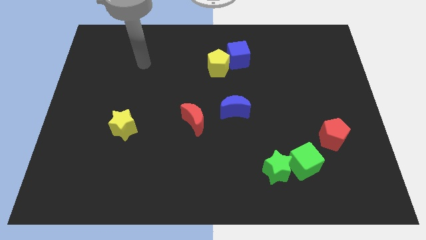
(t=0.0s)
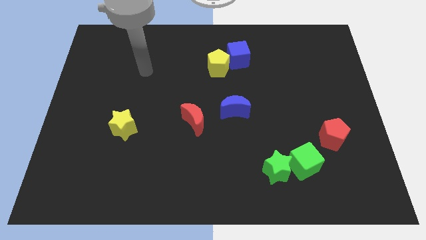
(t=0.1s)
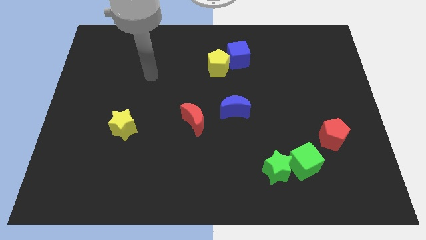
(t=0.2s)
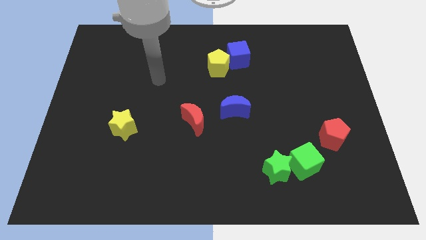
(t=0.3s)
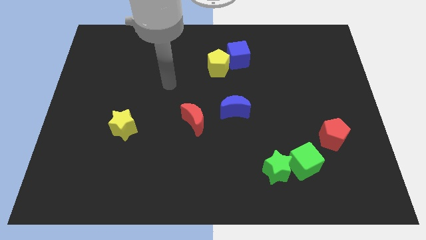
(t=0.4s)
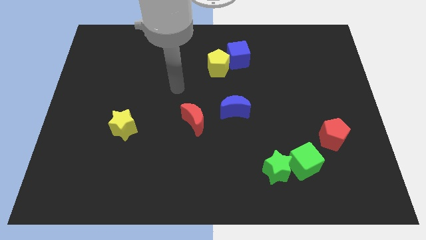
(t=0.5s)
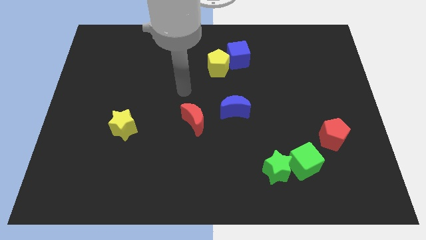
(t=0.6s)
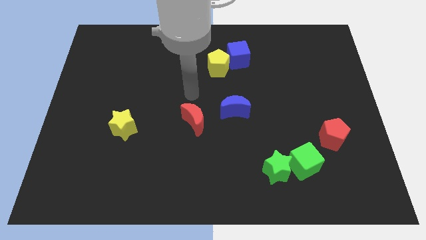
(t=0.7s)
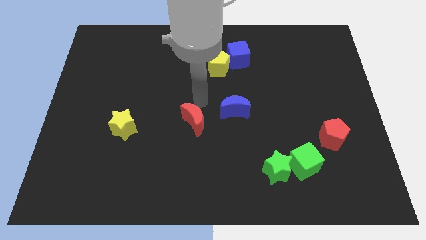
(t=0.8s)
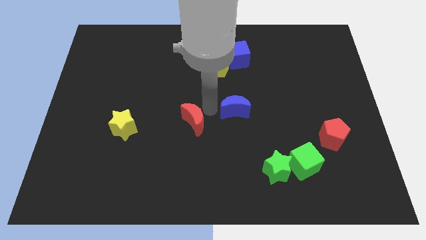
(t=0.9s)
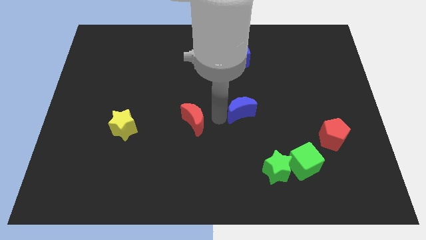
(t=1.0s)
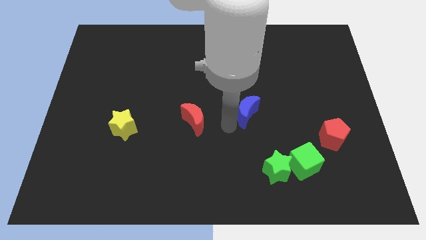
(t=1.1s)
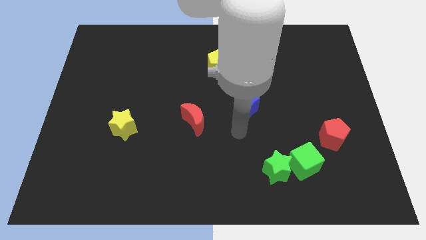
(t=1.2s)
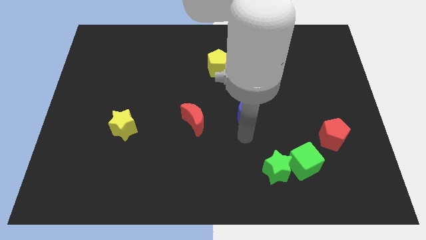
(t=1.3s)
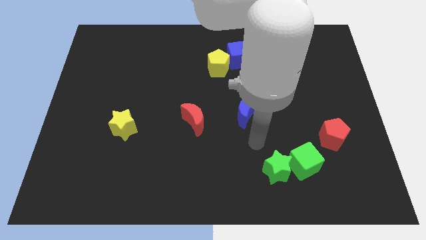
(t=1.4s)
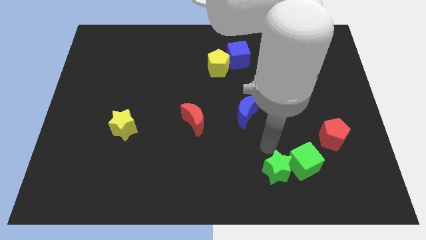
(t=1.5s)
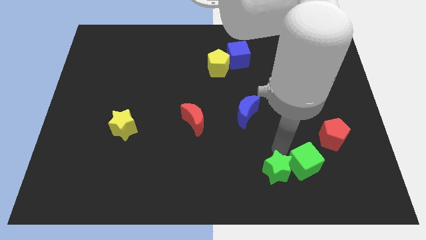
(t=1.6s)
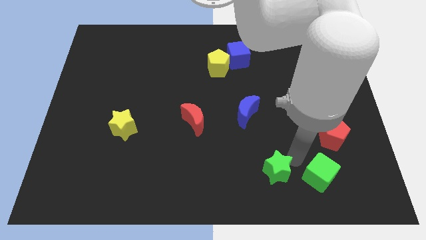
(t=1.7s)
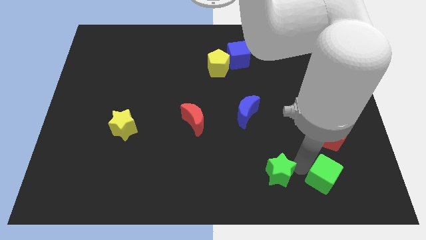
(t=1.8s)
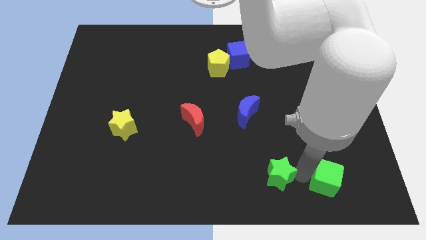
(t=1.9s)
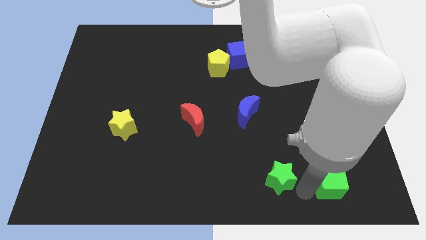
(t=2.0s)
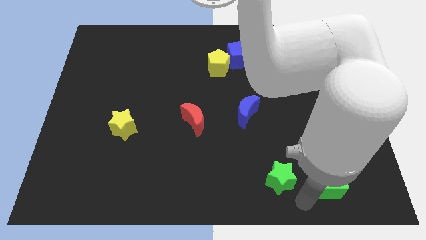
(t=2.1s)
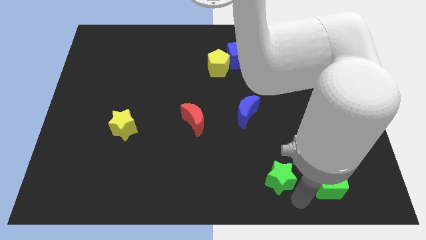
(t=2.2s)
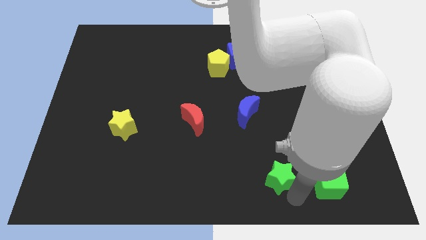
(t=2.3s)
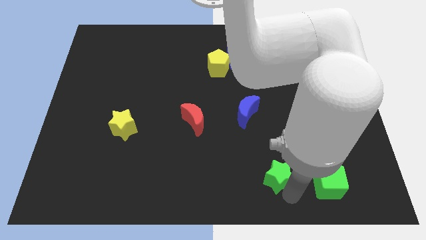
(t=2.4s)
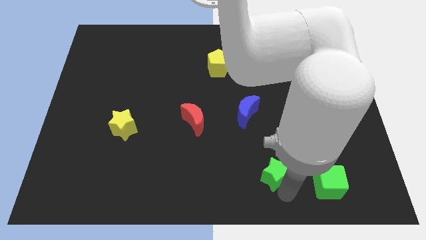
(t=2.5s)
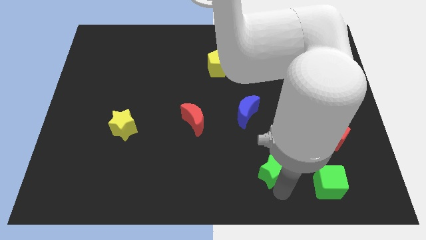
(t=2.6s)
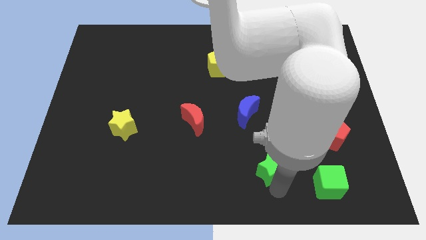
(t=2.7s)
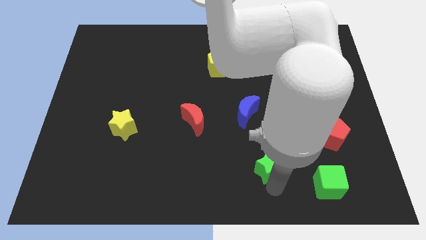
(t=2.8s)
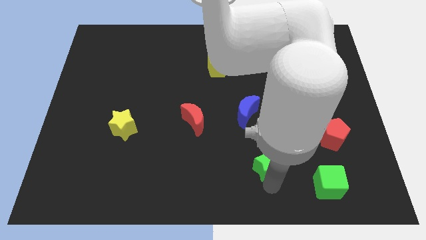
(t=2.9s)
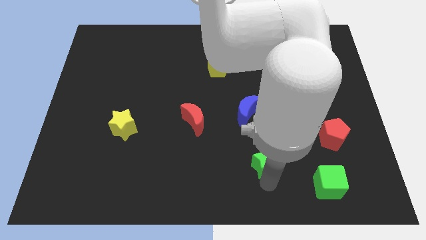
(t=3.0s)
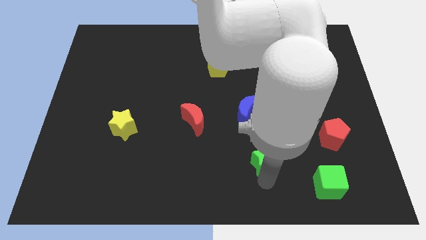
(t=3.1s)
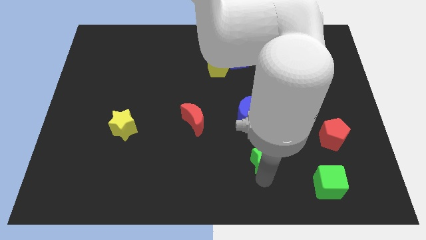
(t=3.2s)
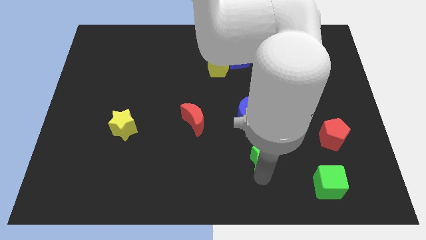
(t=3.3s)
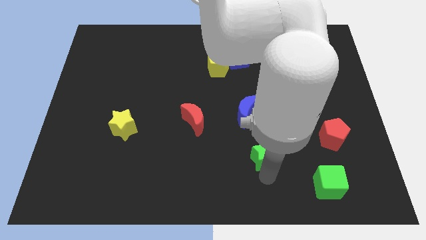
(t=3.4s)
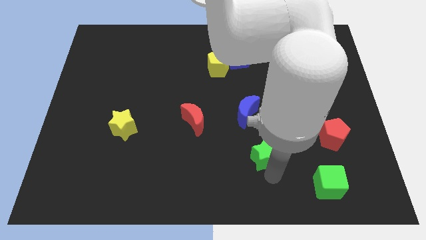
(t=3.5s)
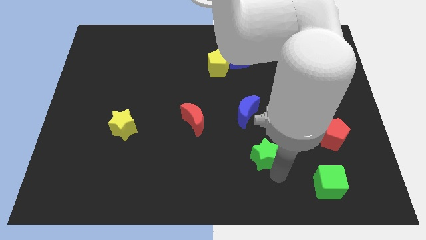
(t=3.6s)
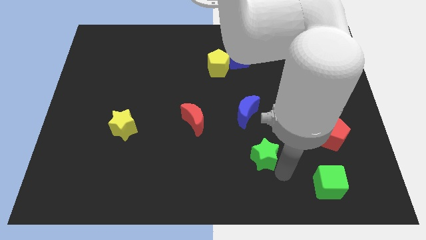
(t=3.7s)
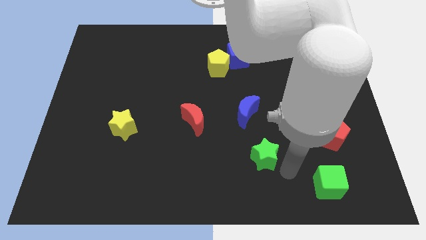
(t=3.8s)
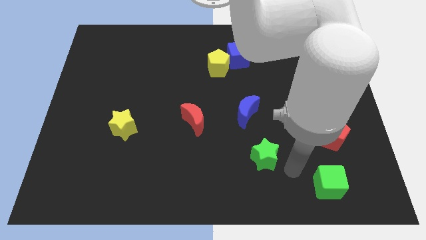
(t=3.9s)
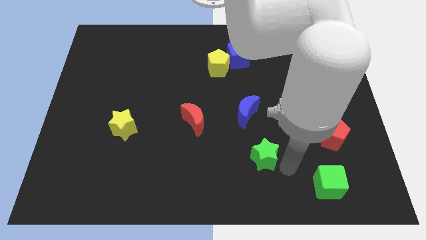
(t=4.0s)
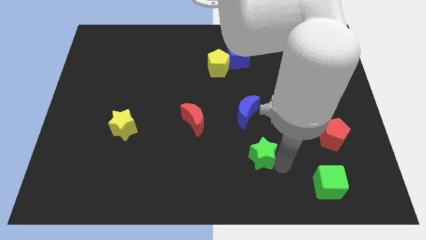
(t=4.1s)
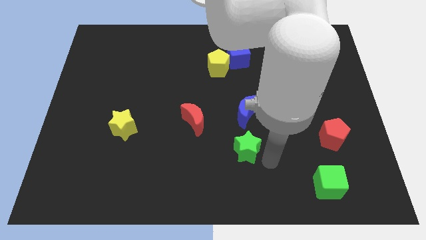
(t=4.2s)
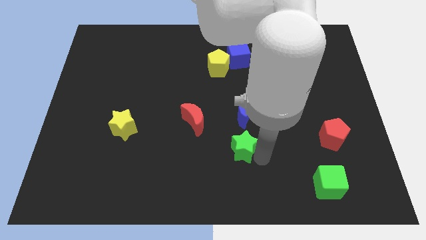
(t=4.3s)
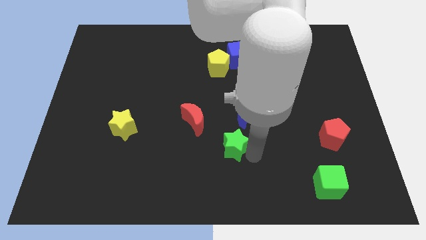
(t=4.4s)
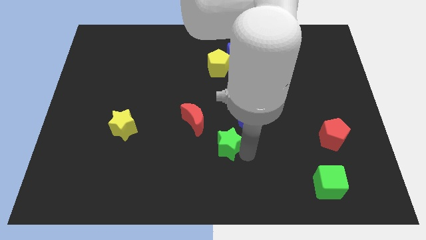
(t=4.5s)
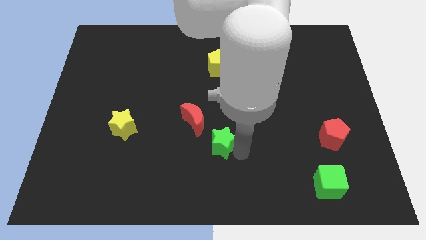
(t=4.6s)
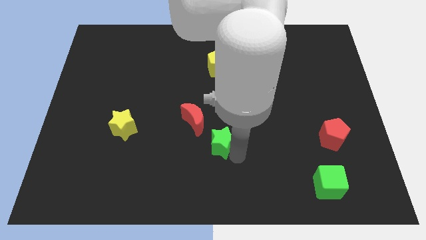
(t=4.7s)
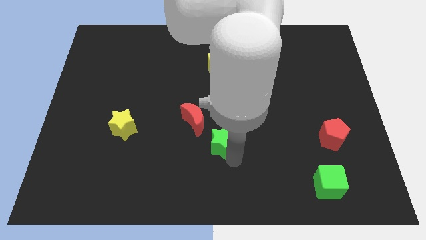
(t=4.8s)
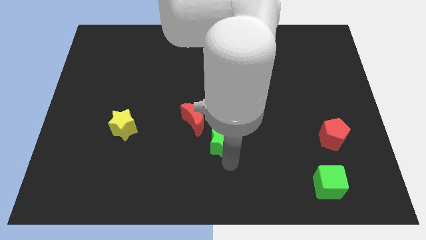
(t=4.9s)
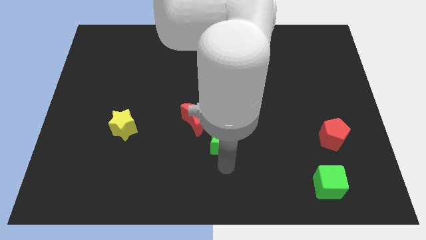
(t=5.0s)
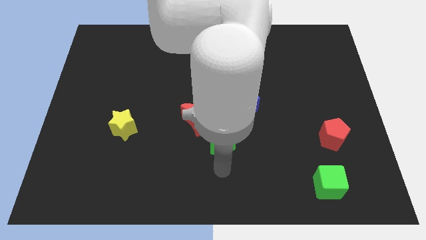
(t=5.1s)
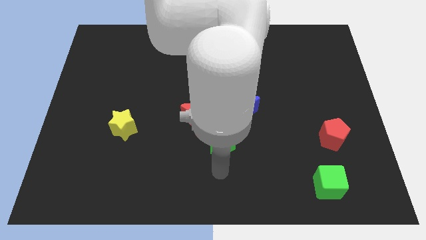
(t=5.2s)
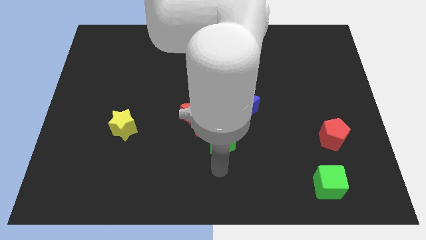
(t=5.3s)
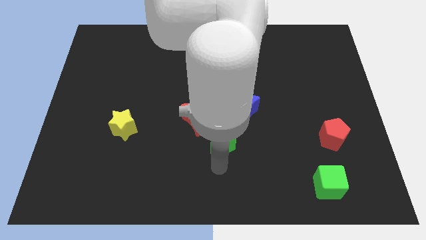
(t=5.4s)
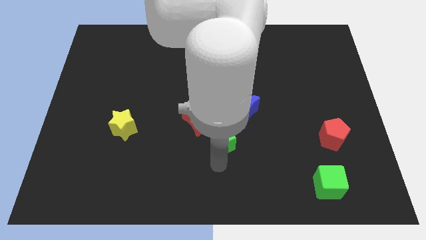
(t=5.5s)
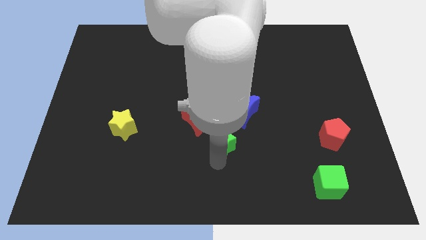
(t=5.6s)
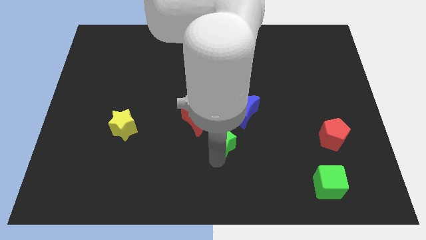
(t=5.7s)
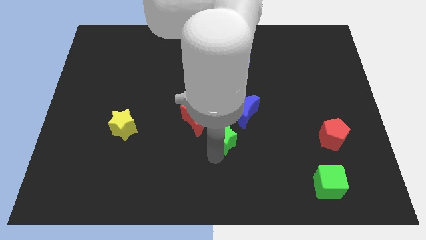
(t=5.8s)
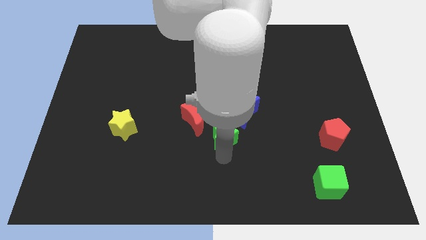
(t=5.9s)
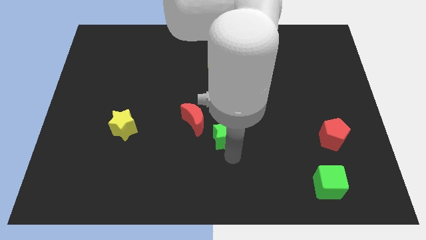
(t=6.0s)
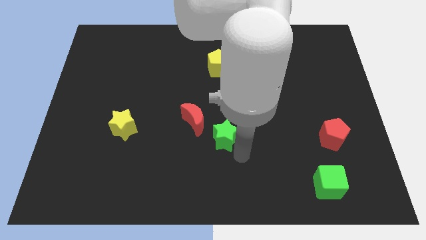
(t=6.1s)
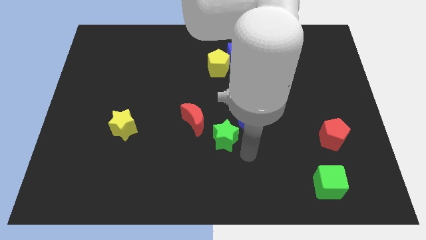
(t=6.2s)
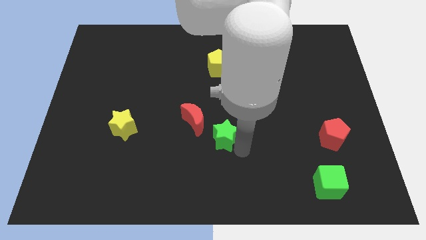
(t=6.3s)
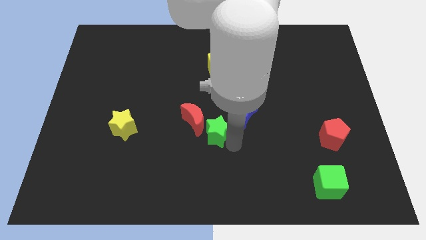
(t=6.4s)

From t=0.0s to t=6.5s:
move the green star towards the red moon
